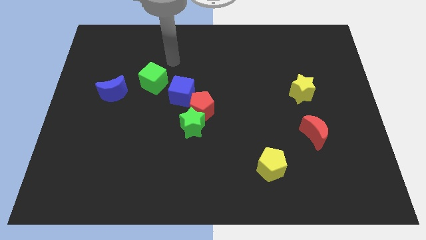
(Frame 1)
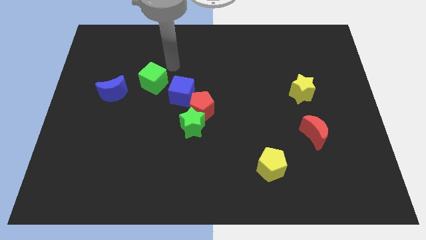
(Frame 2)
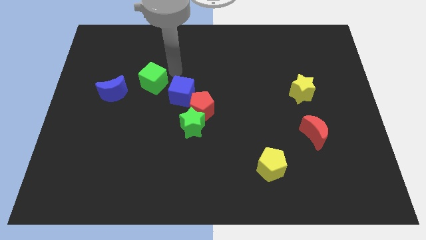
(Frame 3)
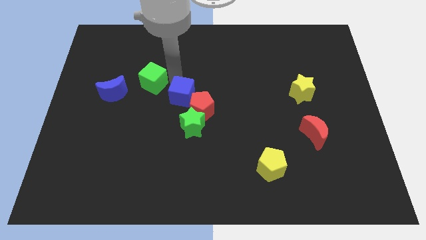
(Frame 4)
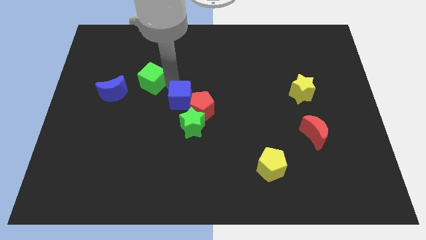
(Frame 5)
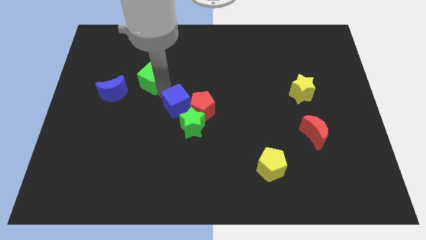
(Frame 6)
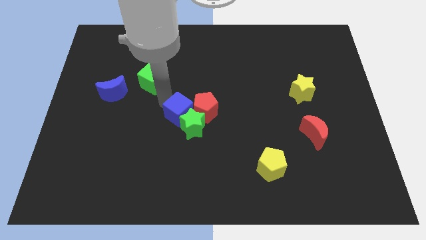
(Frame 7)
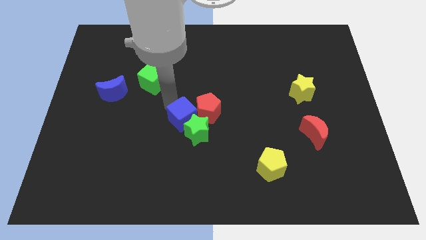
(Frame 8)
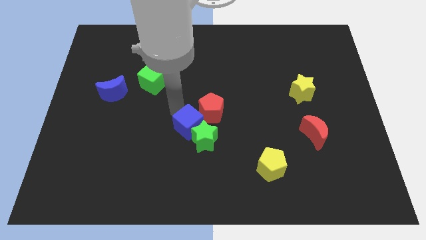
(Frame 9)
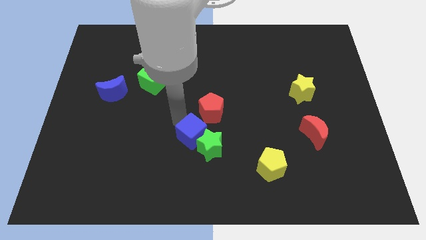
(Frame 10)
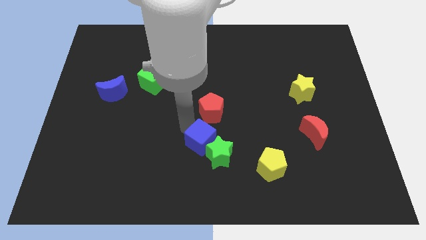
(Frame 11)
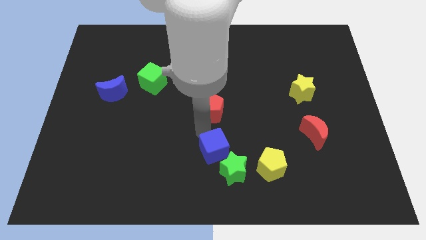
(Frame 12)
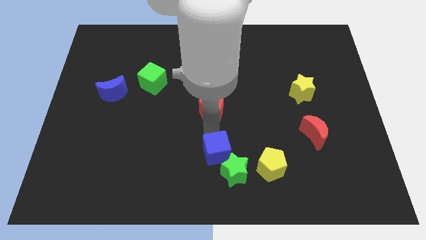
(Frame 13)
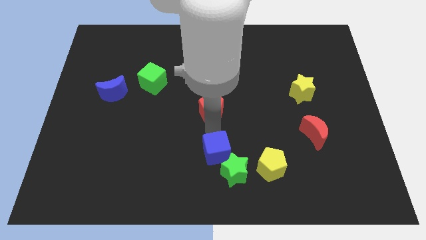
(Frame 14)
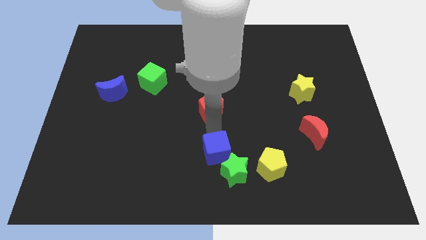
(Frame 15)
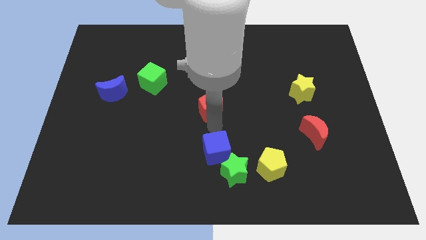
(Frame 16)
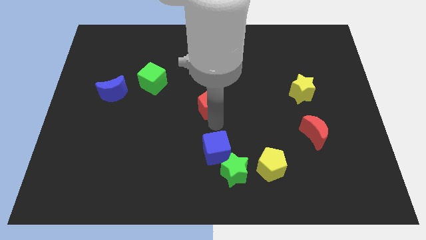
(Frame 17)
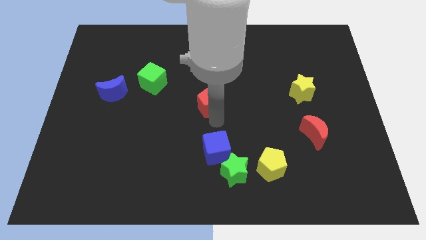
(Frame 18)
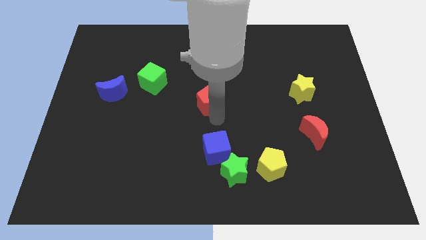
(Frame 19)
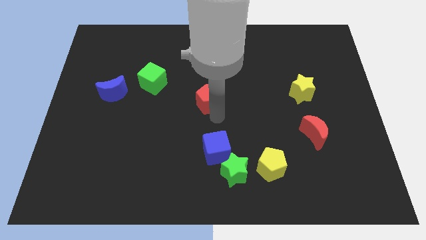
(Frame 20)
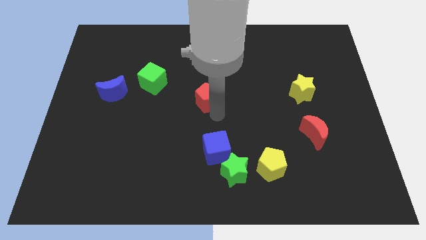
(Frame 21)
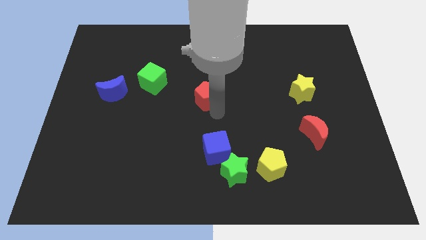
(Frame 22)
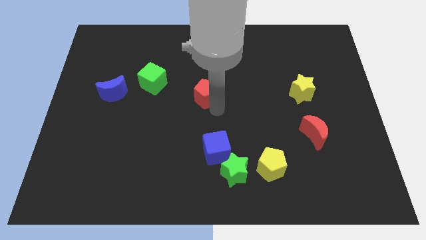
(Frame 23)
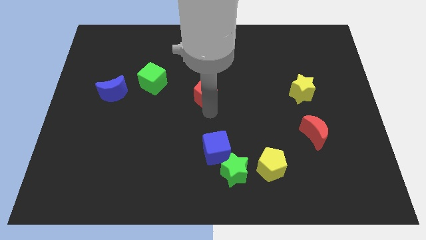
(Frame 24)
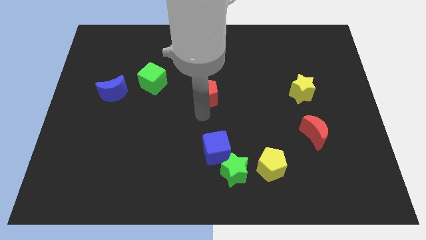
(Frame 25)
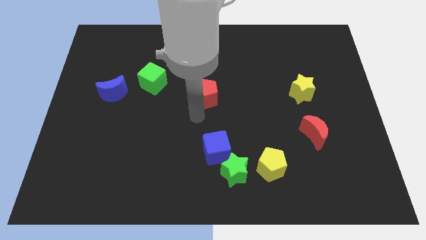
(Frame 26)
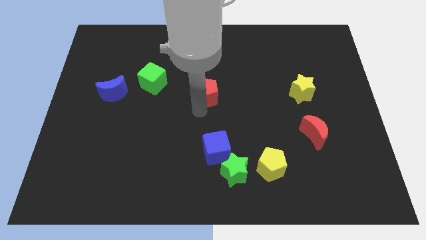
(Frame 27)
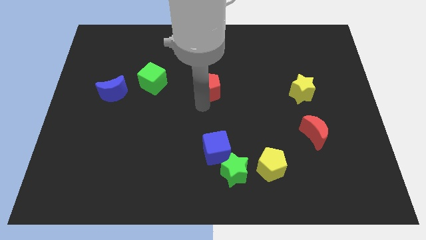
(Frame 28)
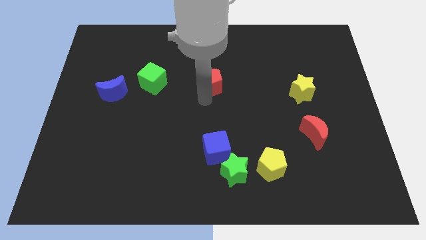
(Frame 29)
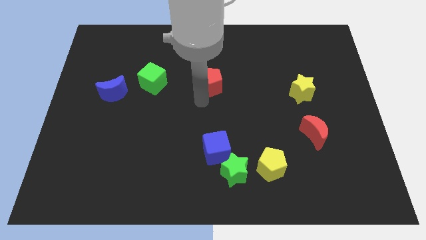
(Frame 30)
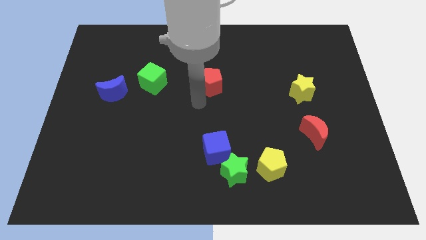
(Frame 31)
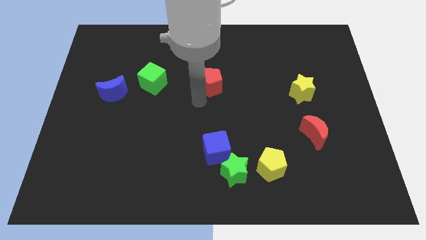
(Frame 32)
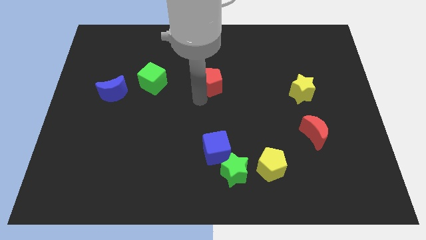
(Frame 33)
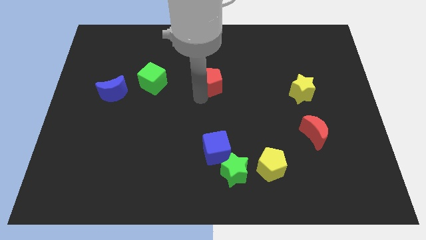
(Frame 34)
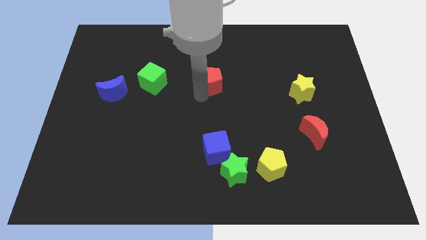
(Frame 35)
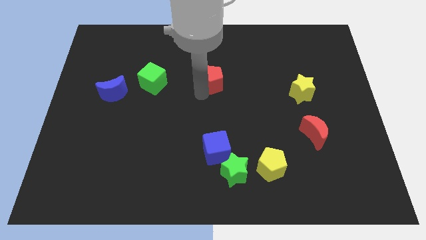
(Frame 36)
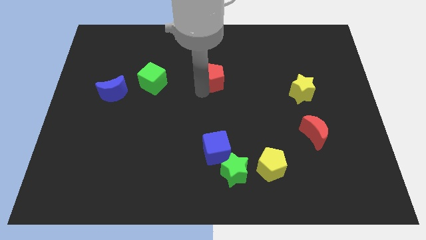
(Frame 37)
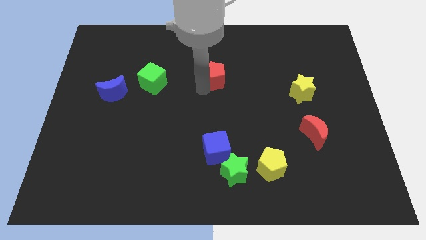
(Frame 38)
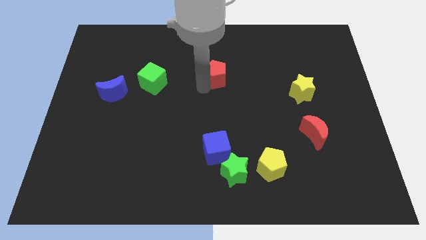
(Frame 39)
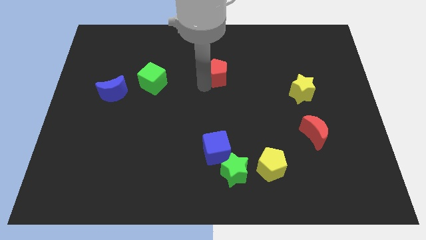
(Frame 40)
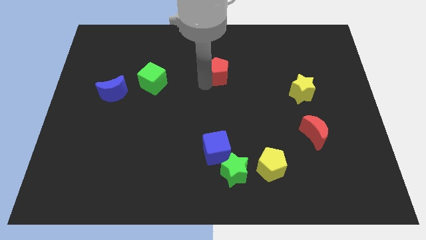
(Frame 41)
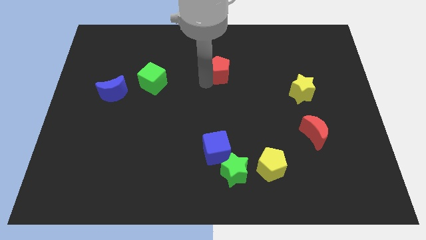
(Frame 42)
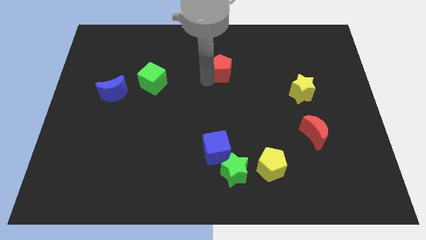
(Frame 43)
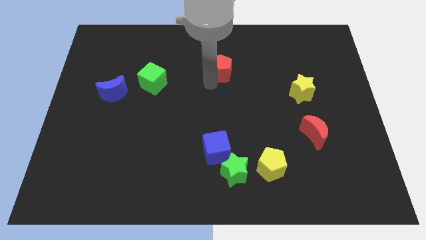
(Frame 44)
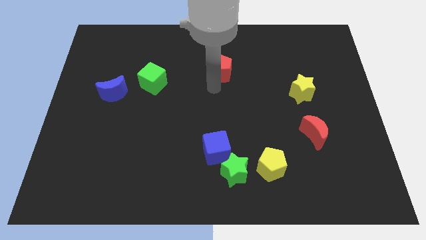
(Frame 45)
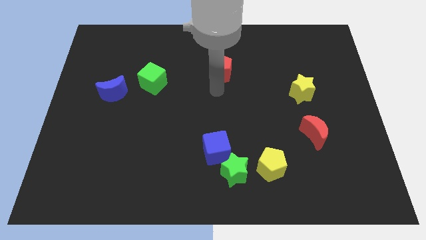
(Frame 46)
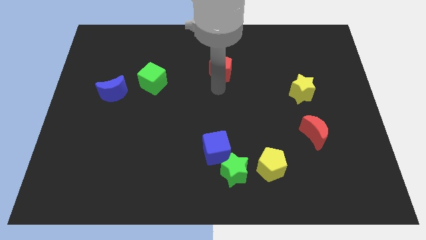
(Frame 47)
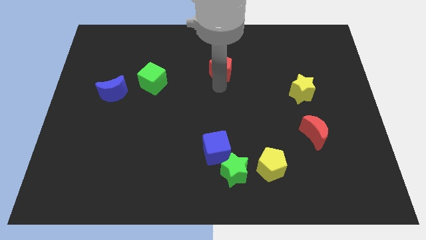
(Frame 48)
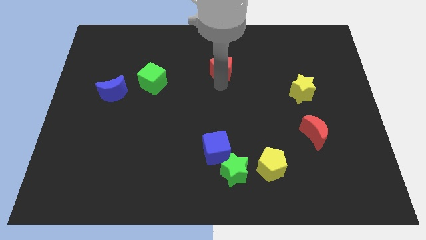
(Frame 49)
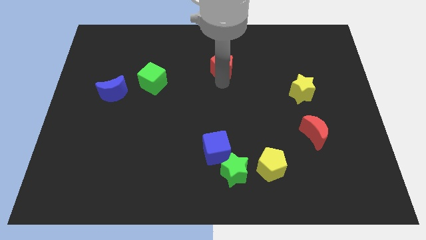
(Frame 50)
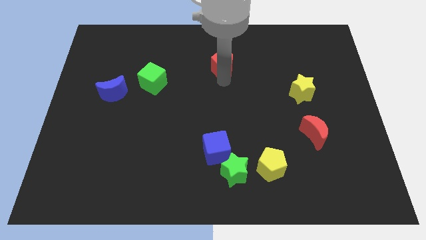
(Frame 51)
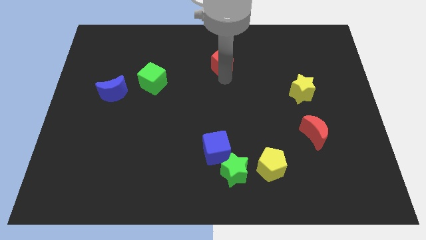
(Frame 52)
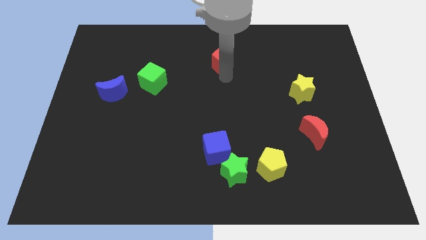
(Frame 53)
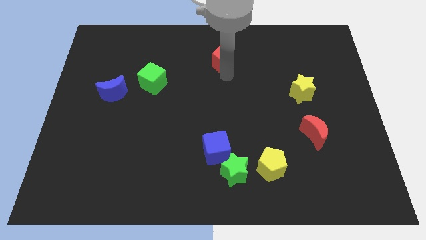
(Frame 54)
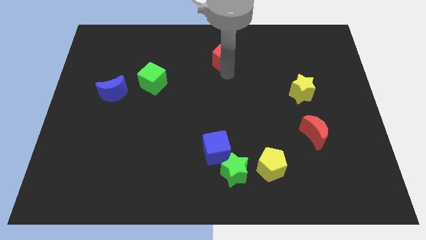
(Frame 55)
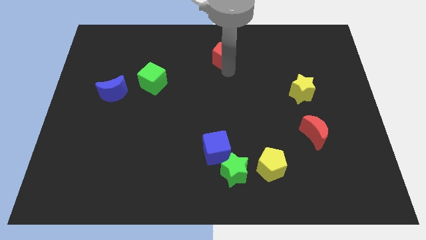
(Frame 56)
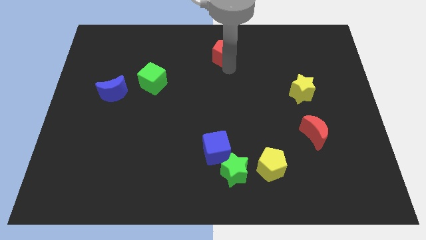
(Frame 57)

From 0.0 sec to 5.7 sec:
put the red pentagon to the top side

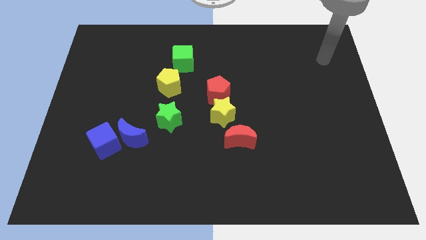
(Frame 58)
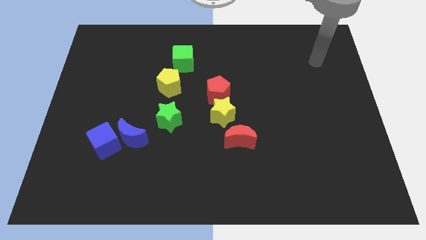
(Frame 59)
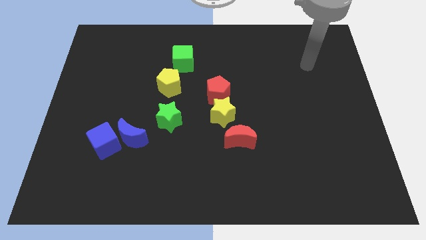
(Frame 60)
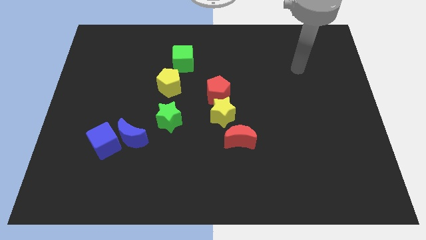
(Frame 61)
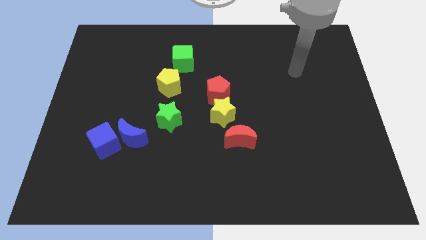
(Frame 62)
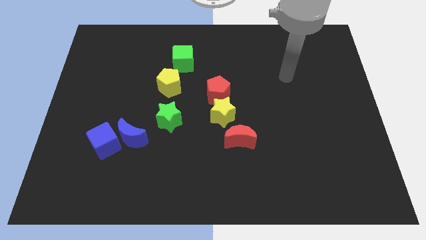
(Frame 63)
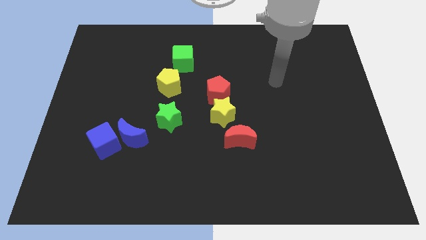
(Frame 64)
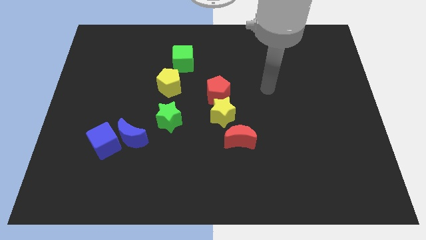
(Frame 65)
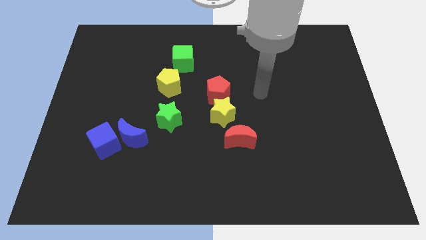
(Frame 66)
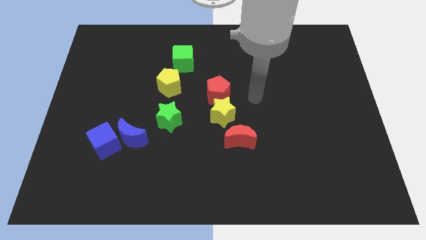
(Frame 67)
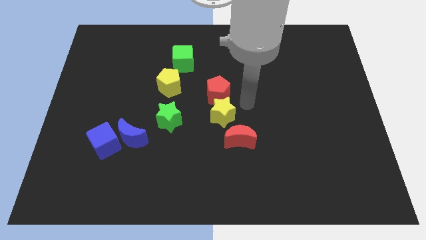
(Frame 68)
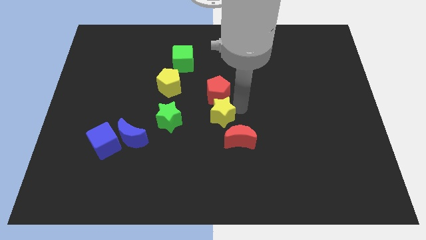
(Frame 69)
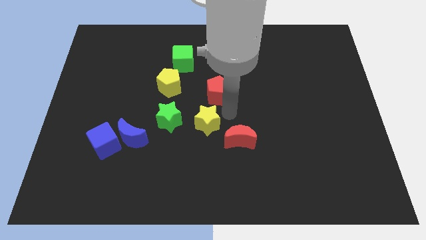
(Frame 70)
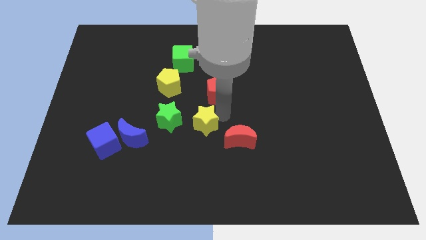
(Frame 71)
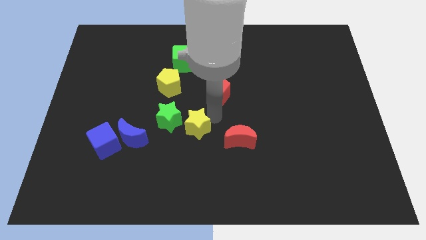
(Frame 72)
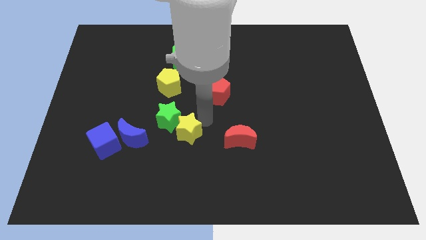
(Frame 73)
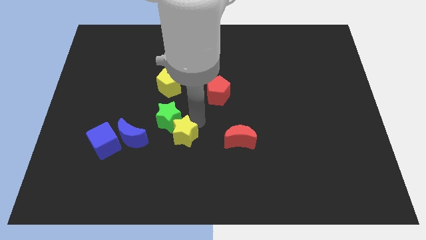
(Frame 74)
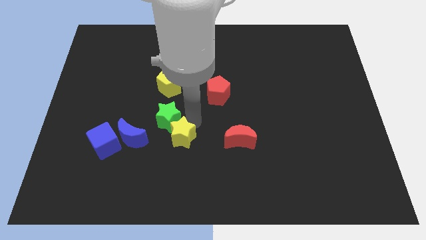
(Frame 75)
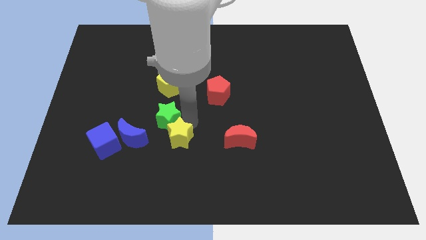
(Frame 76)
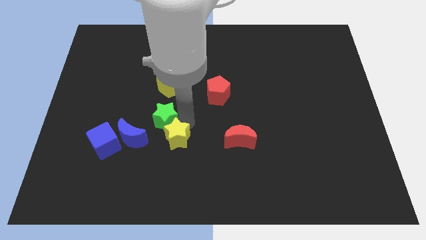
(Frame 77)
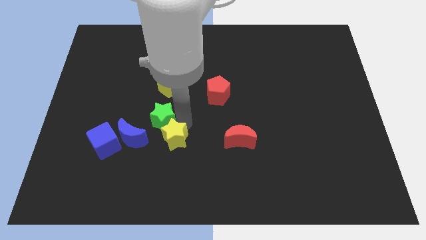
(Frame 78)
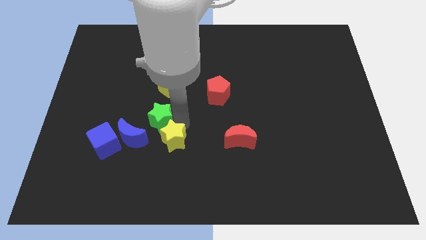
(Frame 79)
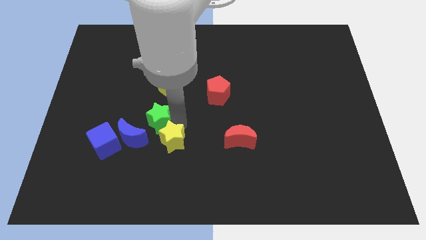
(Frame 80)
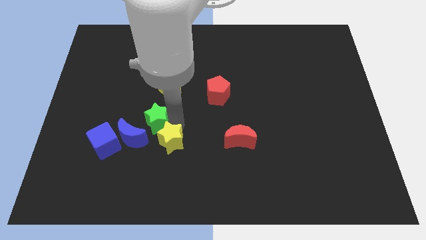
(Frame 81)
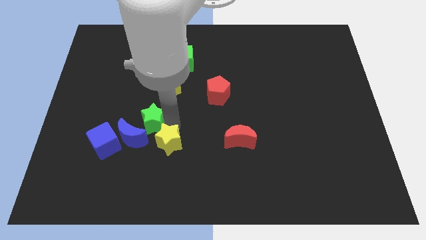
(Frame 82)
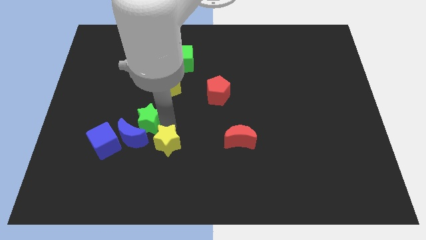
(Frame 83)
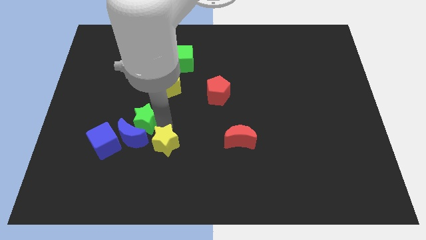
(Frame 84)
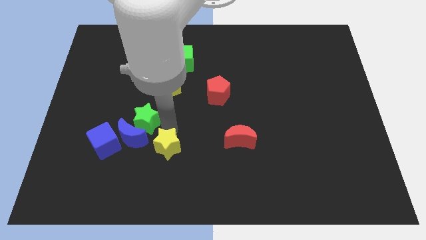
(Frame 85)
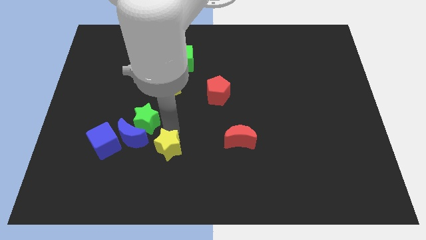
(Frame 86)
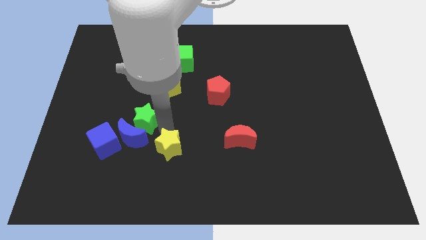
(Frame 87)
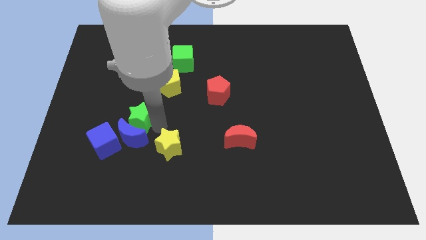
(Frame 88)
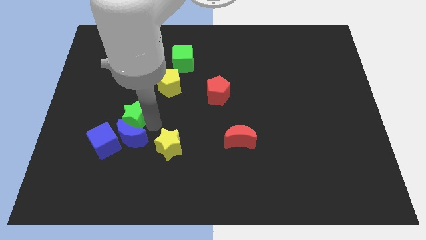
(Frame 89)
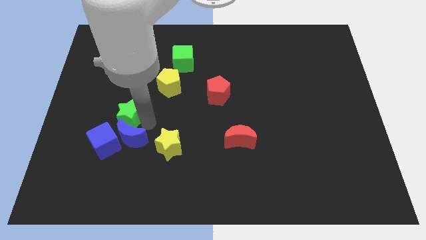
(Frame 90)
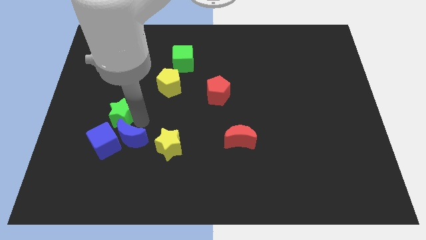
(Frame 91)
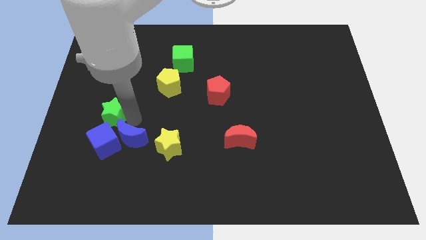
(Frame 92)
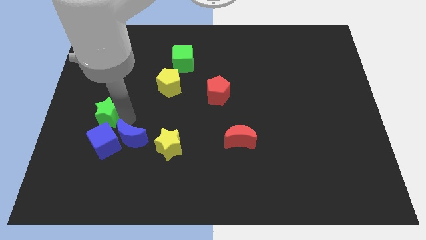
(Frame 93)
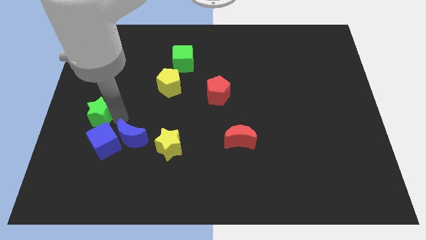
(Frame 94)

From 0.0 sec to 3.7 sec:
move the green star to the center left
